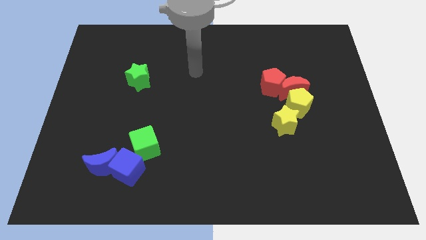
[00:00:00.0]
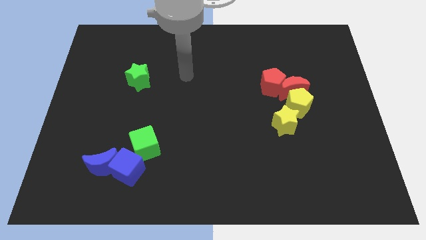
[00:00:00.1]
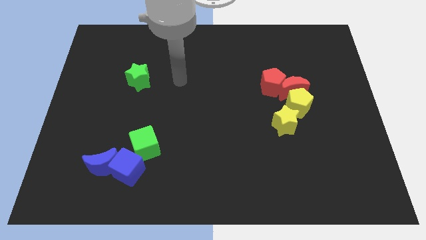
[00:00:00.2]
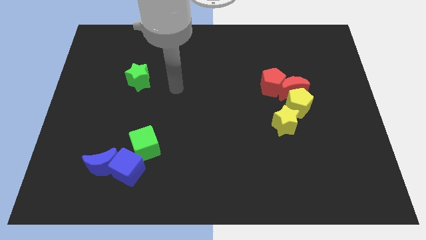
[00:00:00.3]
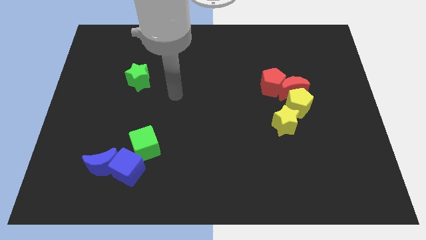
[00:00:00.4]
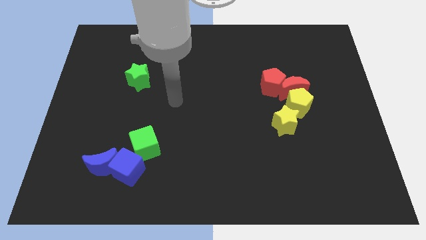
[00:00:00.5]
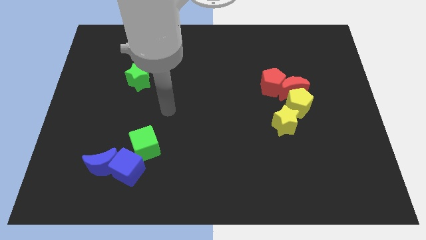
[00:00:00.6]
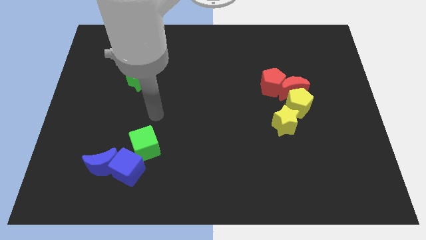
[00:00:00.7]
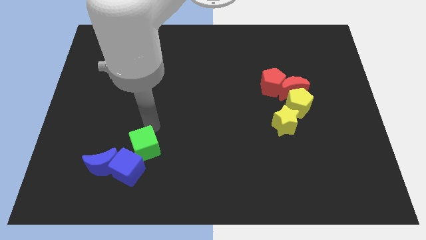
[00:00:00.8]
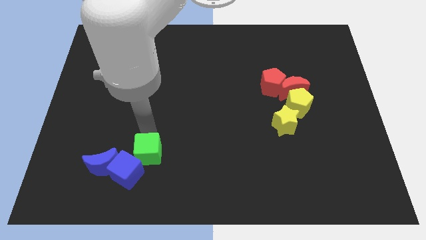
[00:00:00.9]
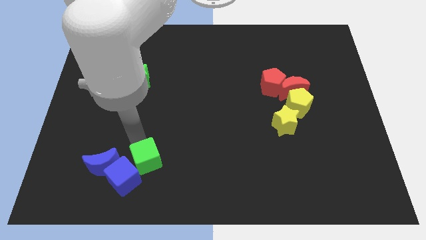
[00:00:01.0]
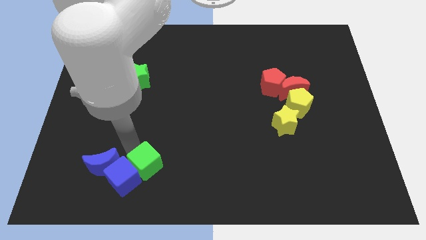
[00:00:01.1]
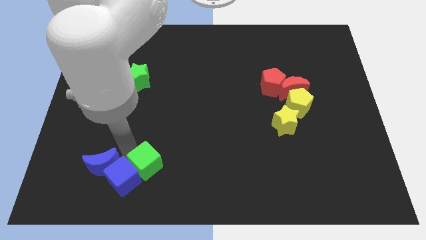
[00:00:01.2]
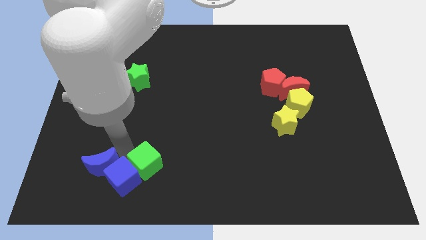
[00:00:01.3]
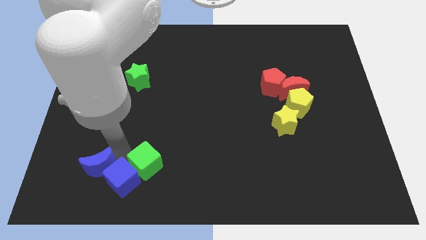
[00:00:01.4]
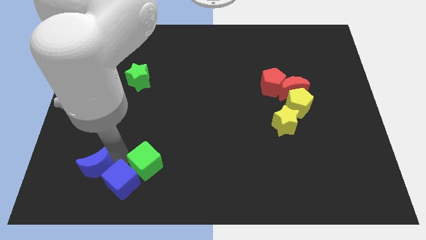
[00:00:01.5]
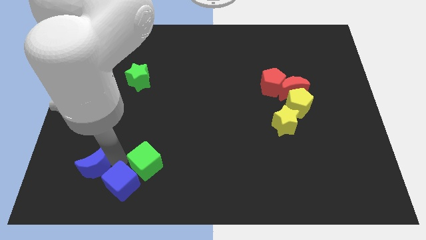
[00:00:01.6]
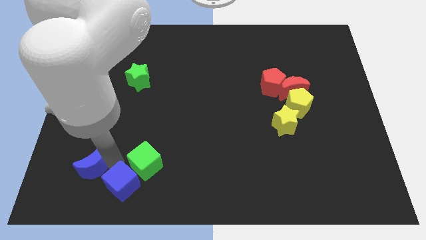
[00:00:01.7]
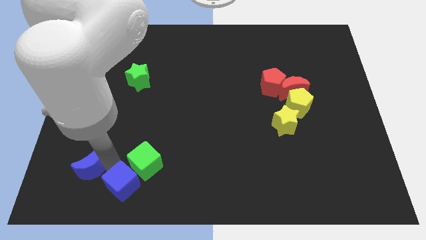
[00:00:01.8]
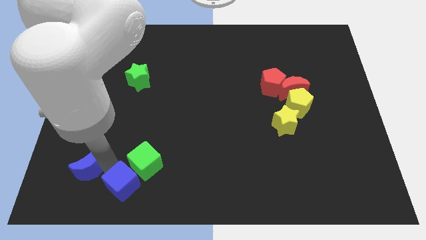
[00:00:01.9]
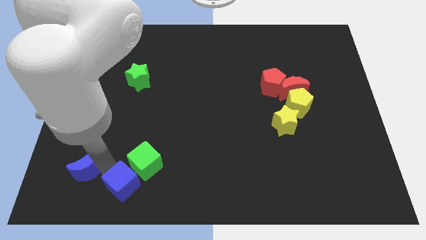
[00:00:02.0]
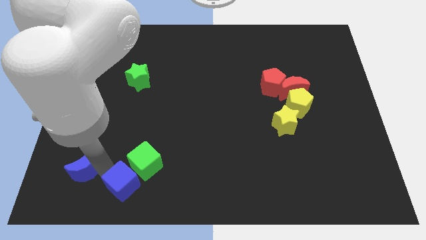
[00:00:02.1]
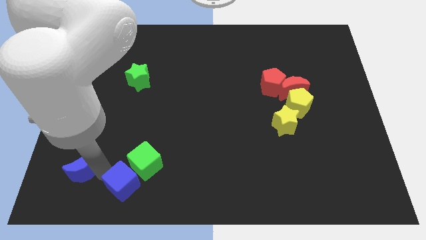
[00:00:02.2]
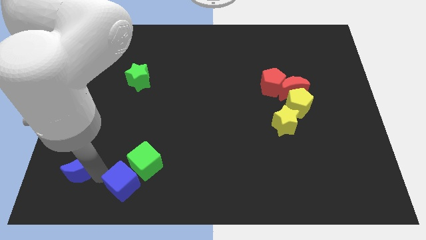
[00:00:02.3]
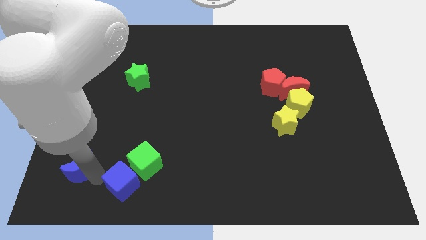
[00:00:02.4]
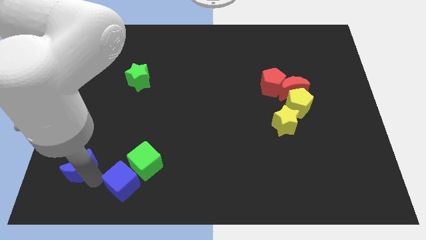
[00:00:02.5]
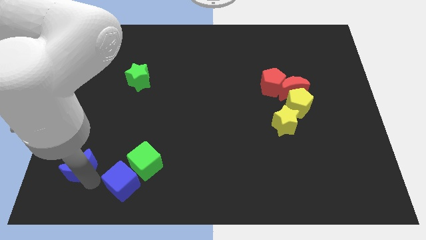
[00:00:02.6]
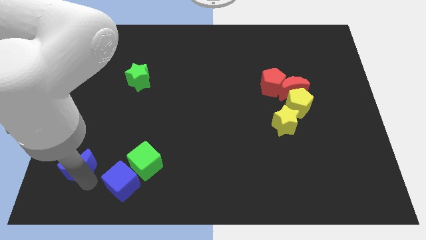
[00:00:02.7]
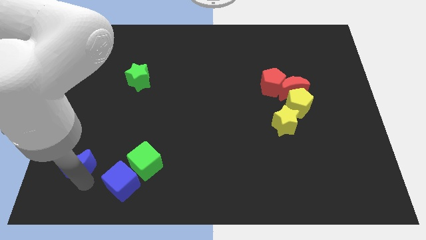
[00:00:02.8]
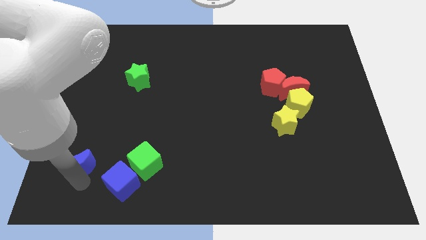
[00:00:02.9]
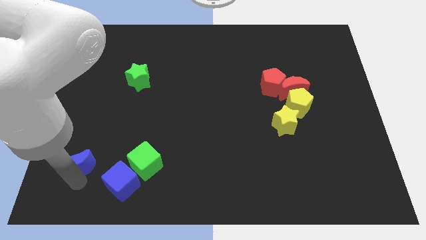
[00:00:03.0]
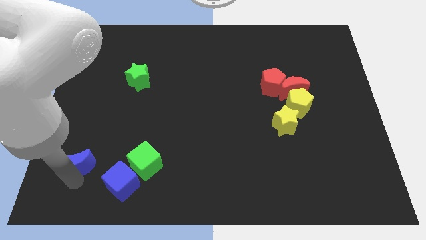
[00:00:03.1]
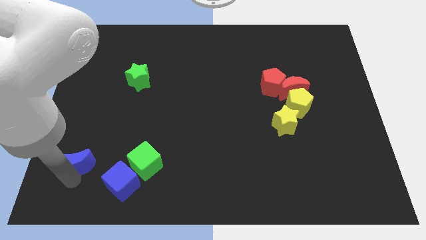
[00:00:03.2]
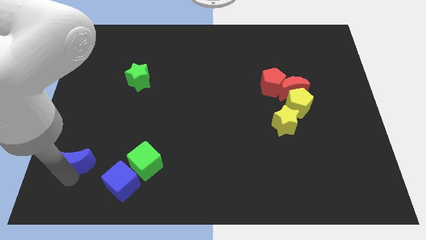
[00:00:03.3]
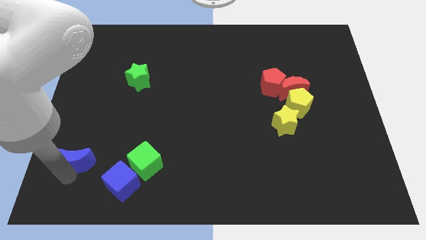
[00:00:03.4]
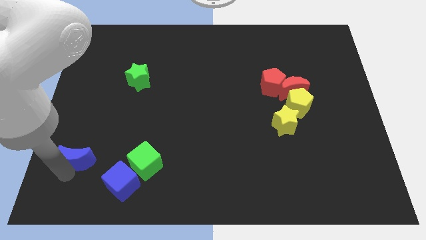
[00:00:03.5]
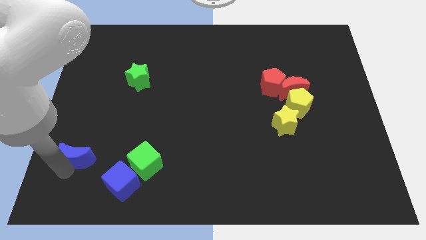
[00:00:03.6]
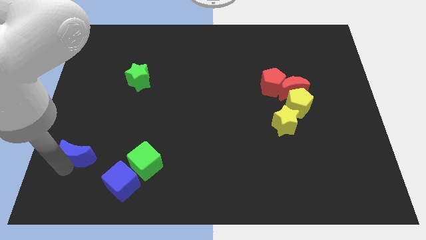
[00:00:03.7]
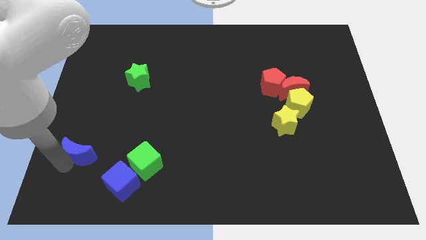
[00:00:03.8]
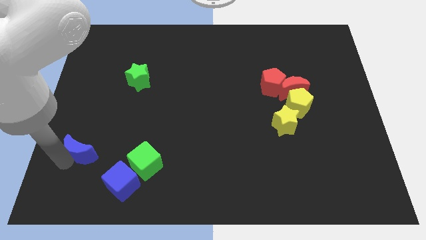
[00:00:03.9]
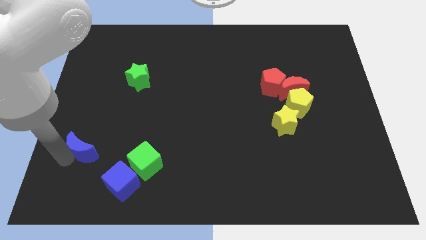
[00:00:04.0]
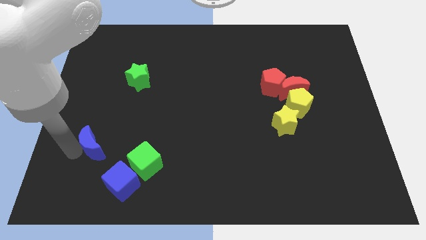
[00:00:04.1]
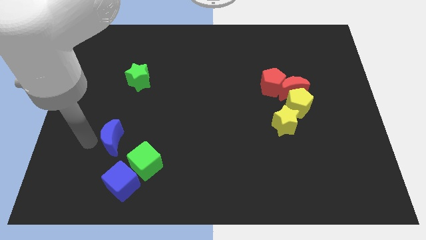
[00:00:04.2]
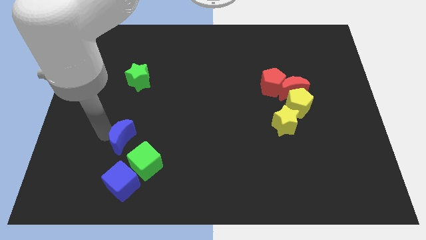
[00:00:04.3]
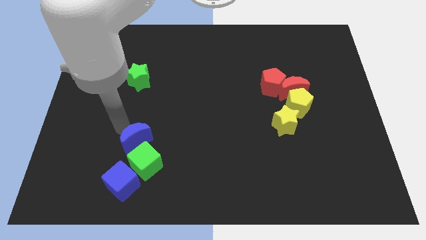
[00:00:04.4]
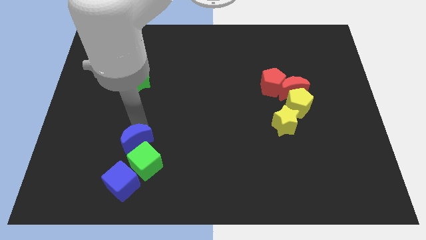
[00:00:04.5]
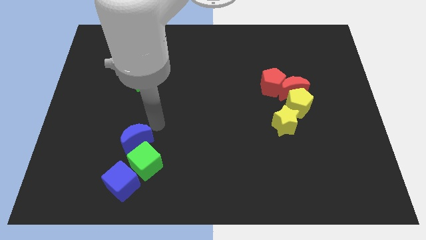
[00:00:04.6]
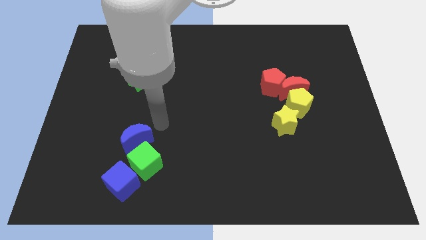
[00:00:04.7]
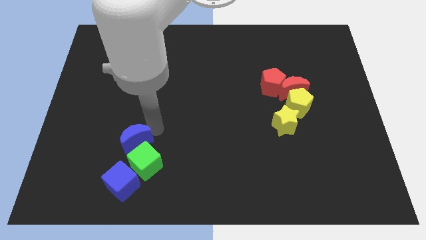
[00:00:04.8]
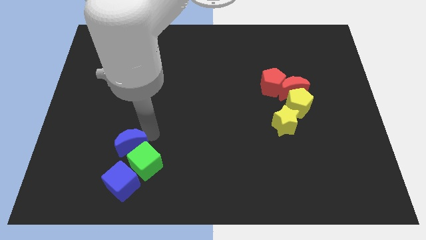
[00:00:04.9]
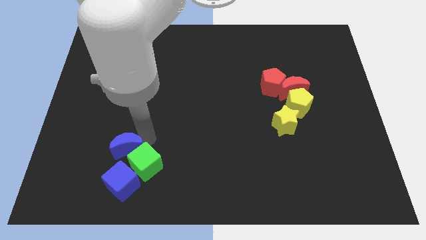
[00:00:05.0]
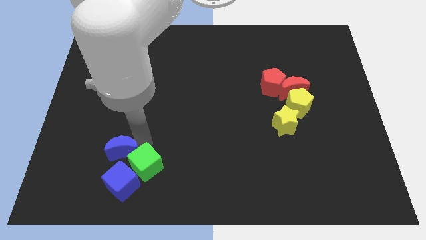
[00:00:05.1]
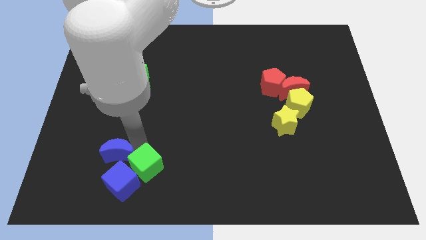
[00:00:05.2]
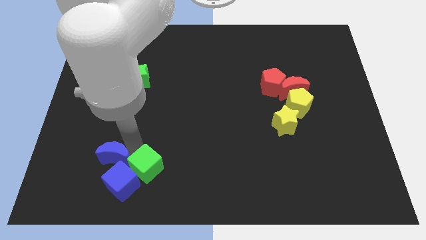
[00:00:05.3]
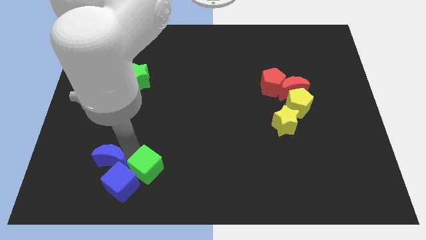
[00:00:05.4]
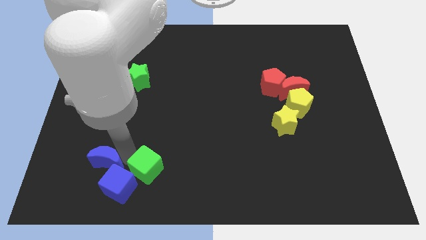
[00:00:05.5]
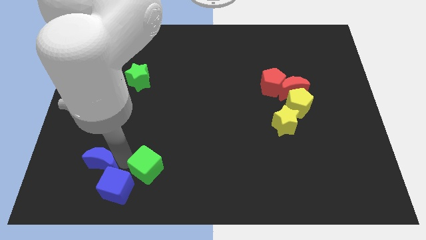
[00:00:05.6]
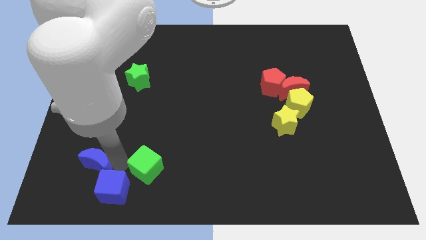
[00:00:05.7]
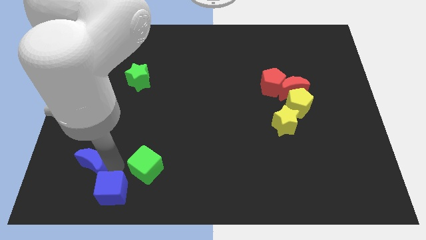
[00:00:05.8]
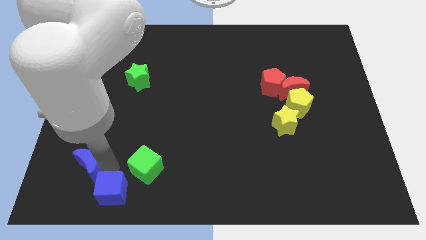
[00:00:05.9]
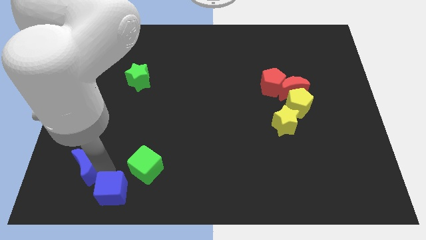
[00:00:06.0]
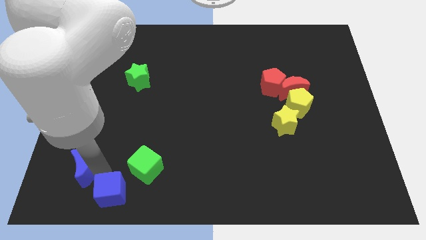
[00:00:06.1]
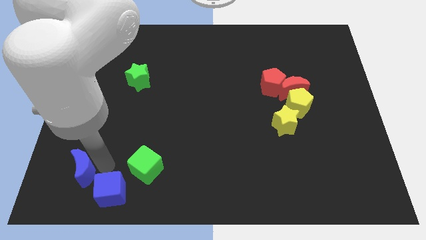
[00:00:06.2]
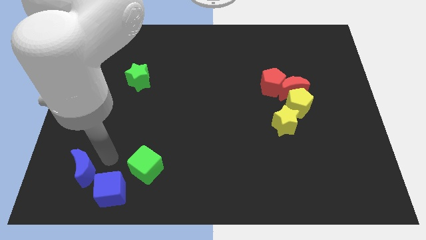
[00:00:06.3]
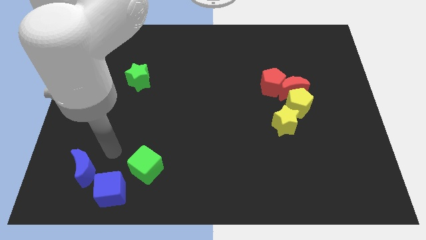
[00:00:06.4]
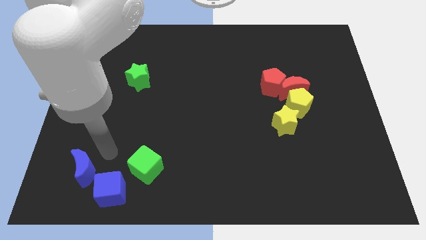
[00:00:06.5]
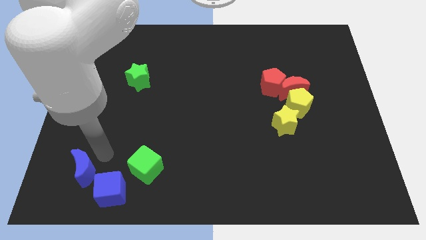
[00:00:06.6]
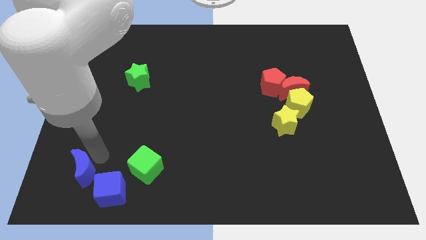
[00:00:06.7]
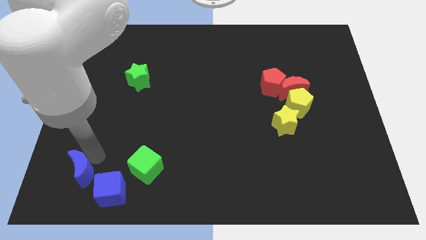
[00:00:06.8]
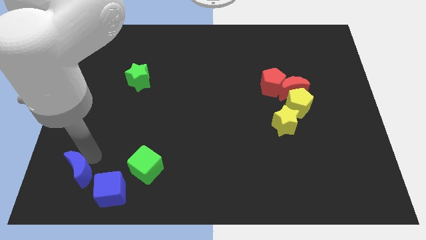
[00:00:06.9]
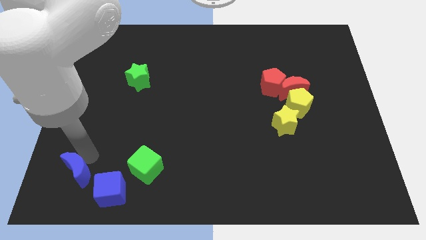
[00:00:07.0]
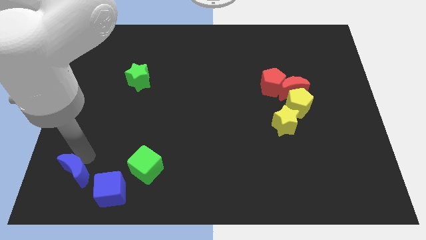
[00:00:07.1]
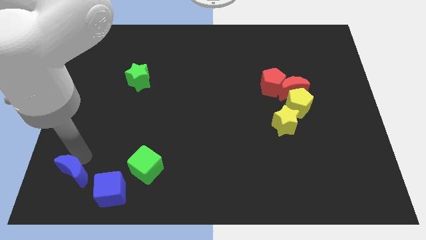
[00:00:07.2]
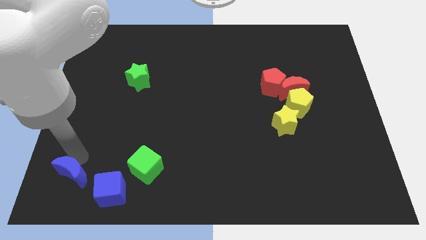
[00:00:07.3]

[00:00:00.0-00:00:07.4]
put the blue moon to the bottom left corner
